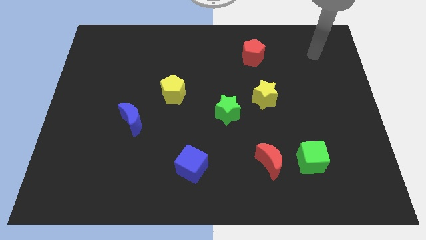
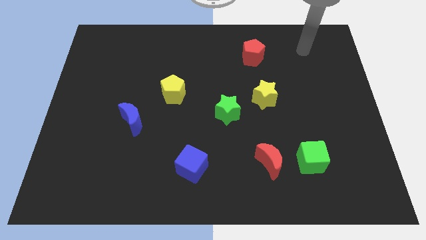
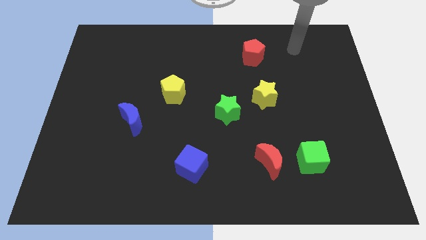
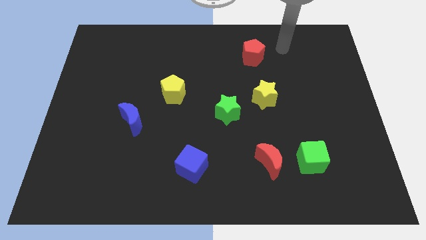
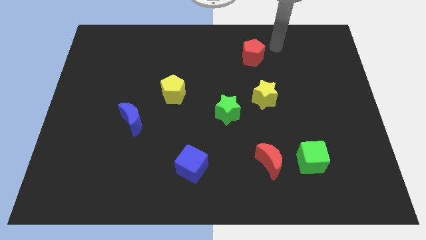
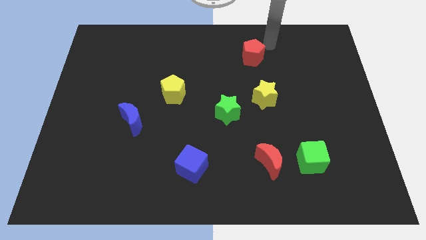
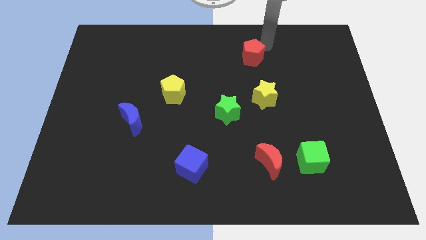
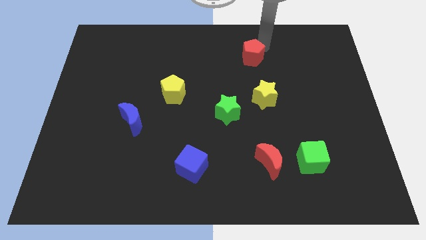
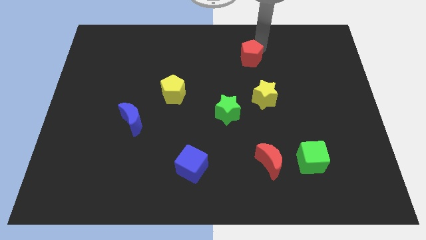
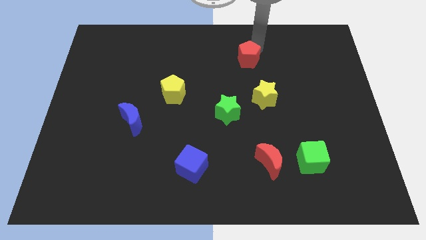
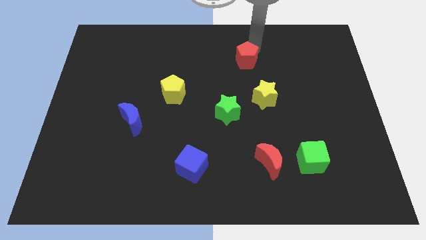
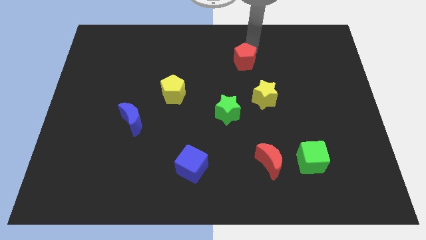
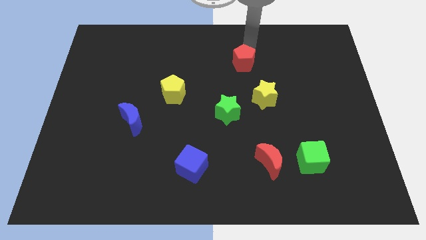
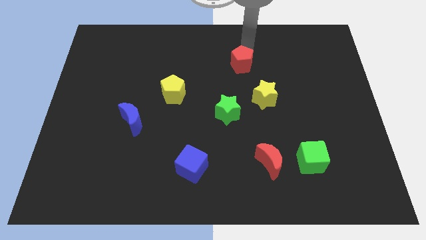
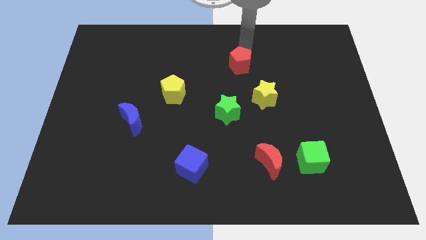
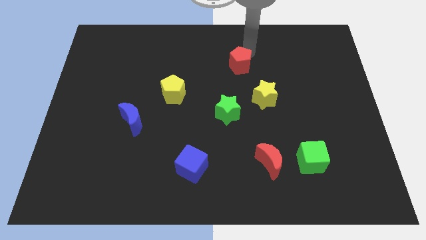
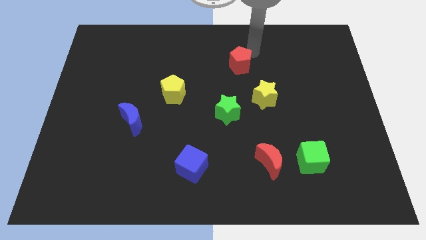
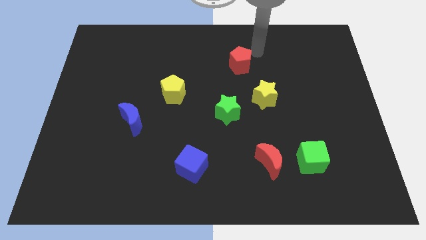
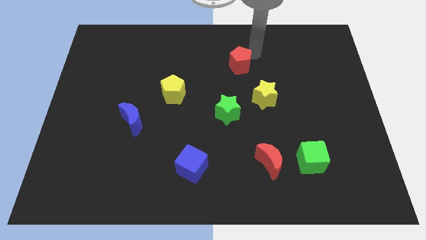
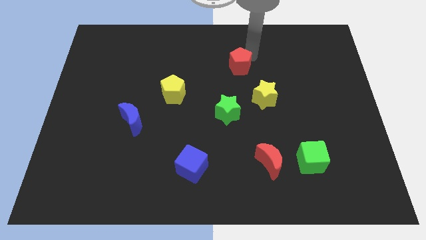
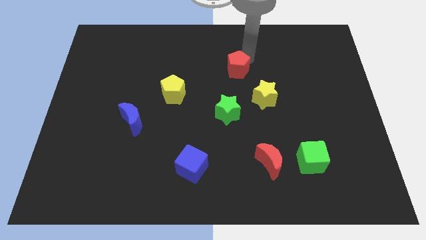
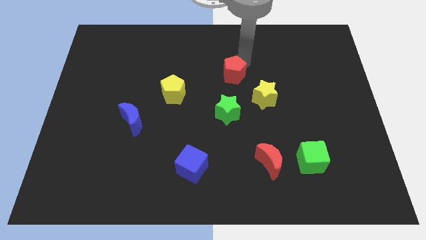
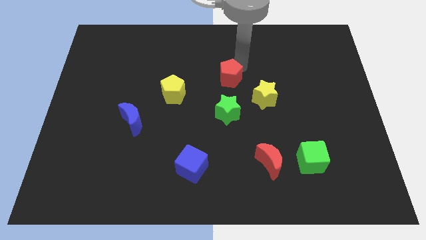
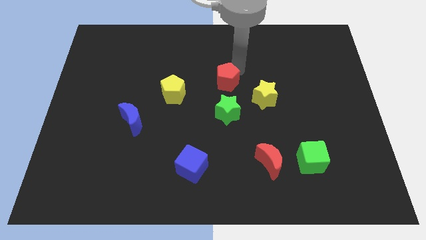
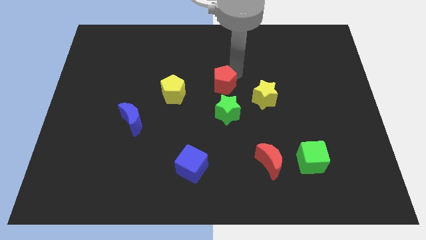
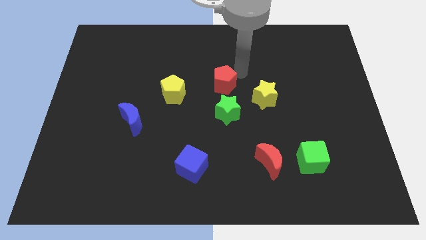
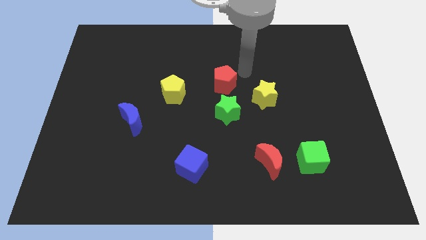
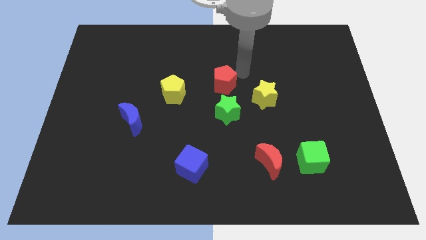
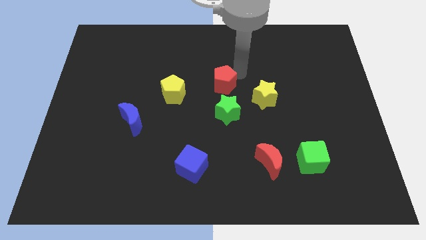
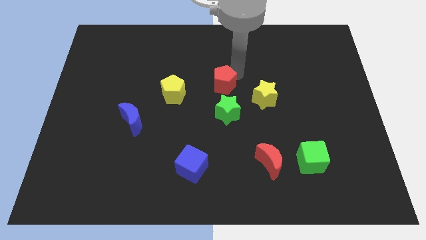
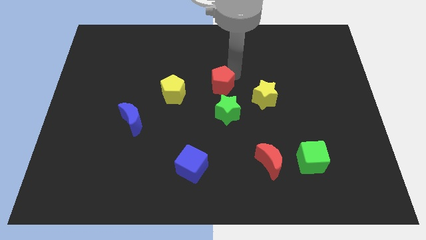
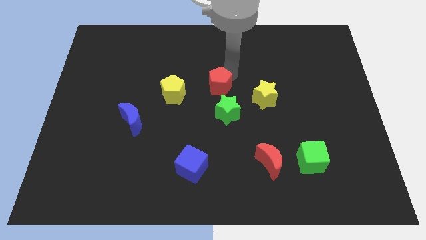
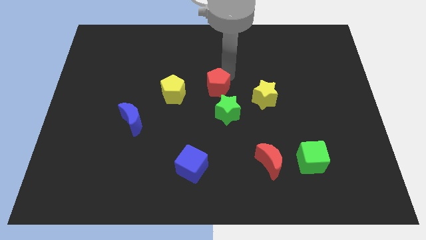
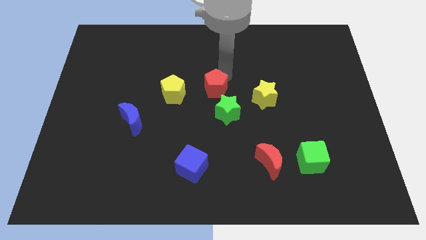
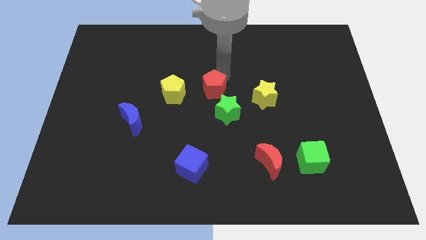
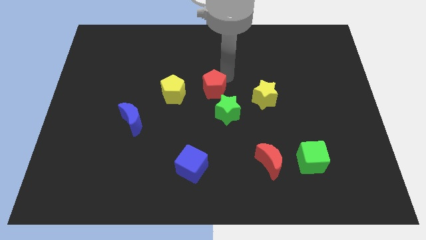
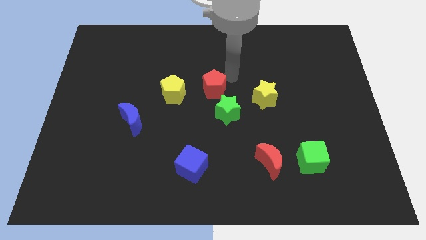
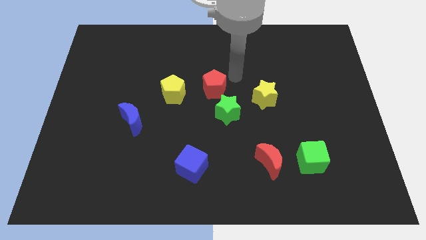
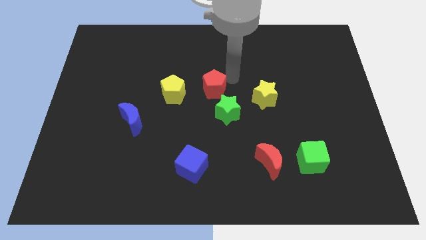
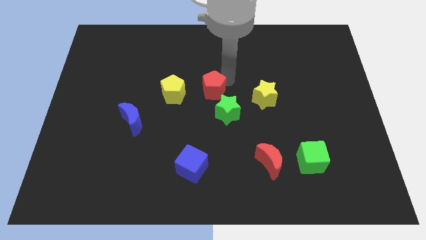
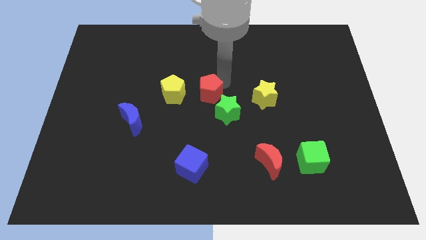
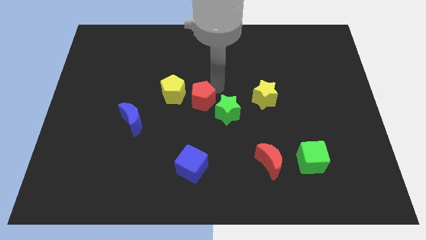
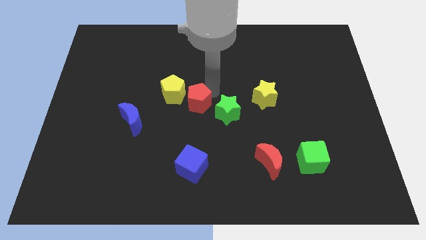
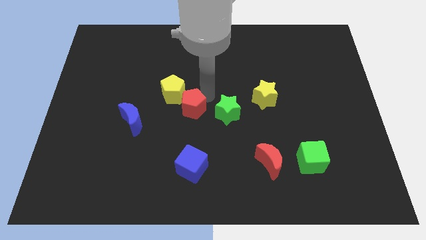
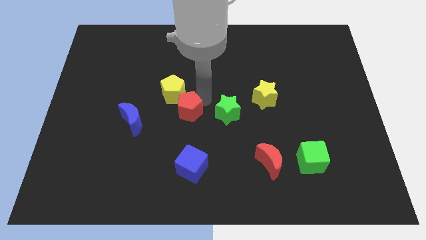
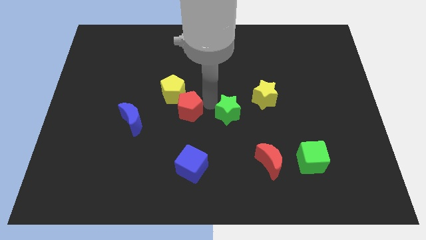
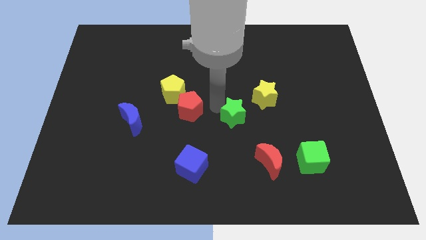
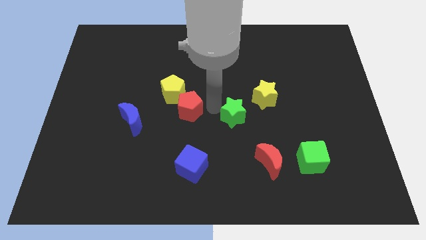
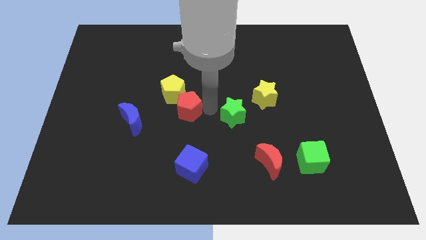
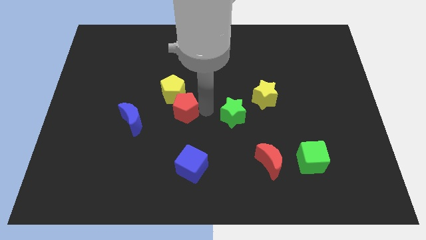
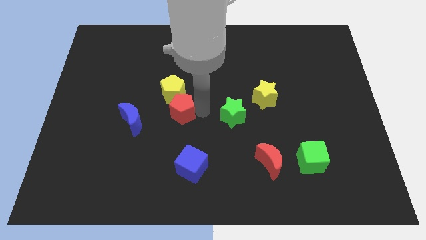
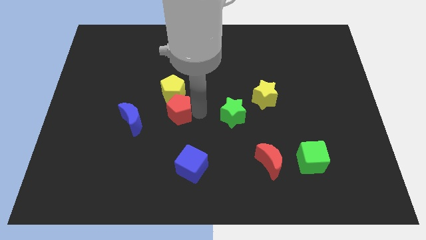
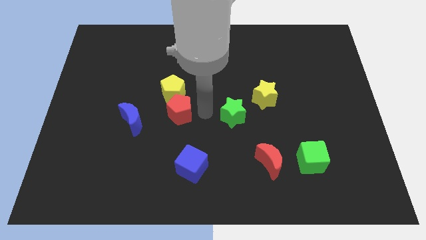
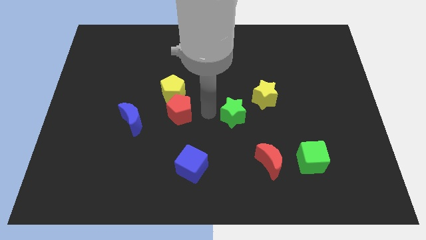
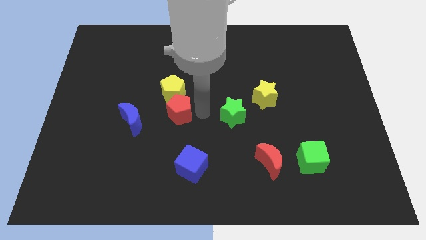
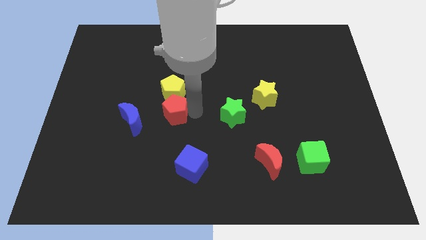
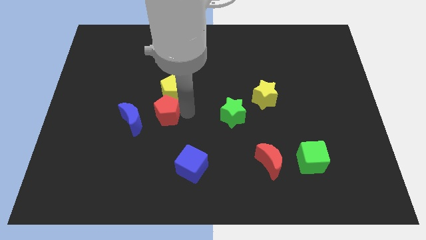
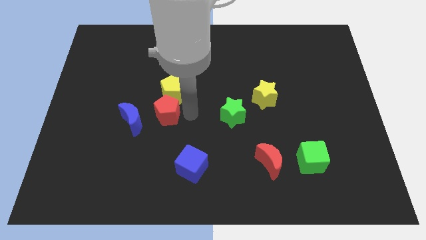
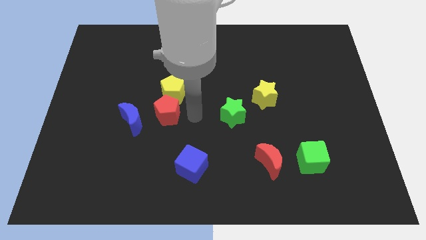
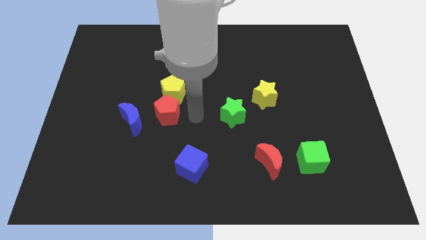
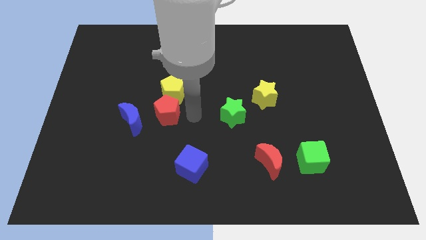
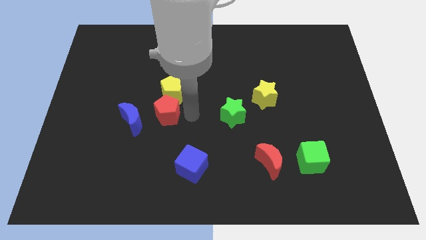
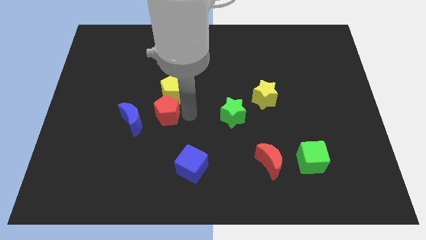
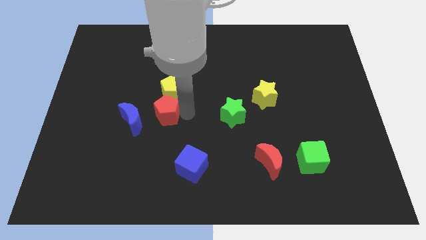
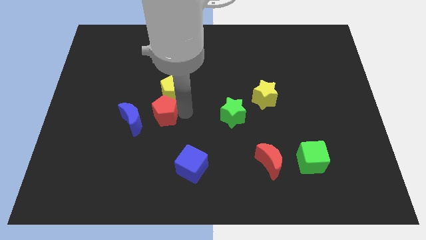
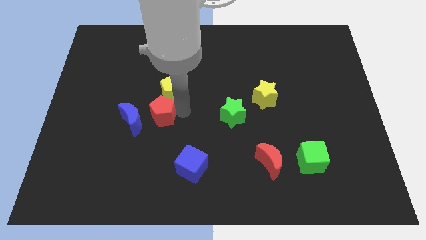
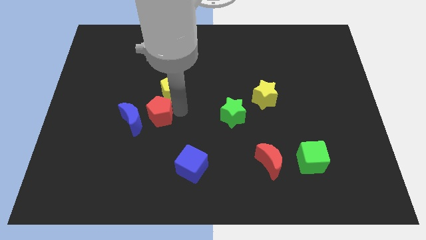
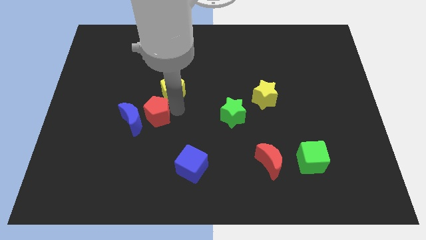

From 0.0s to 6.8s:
move the red pentagon towards the blue moon

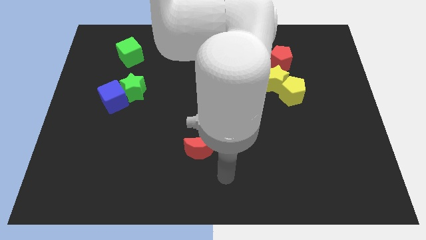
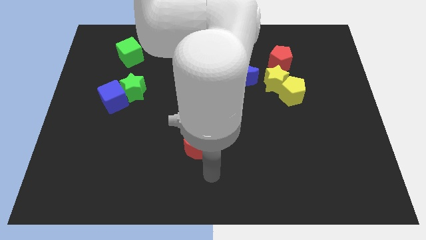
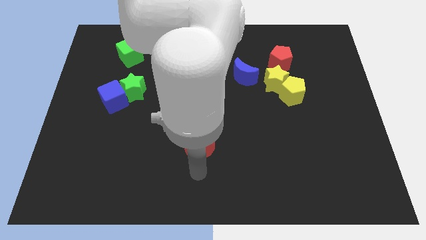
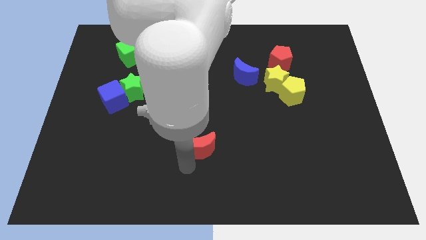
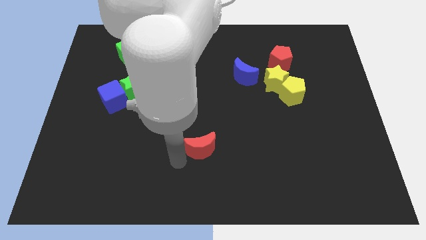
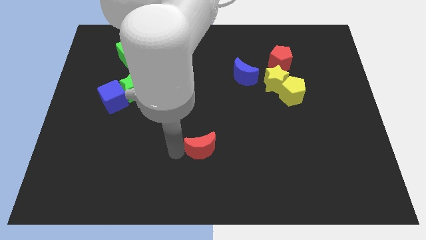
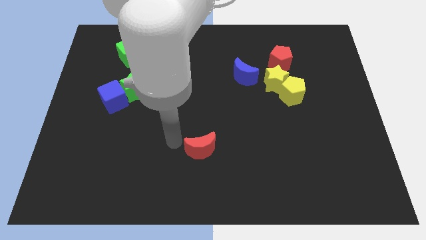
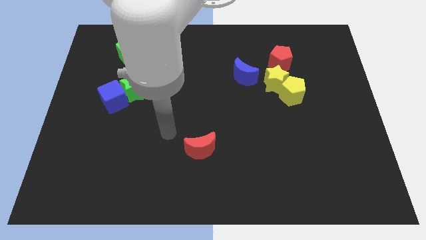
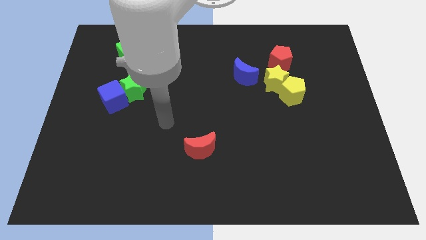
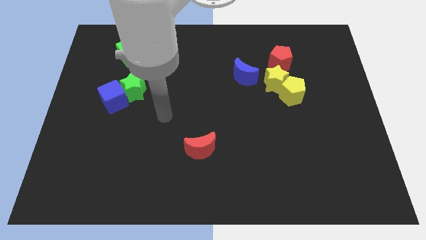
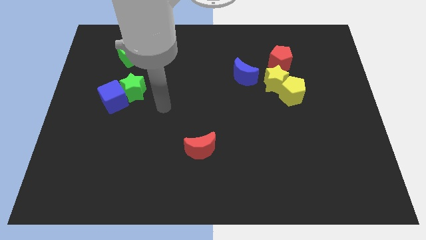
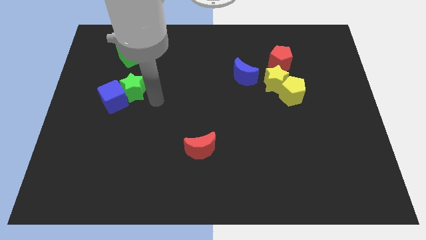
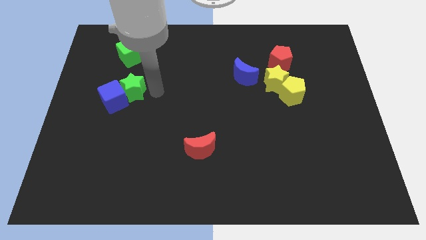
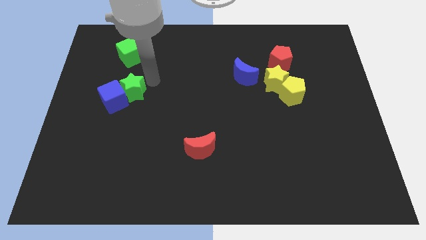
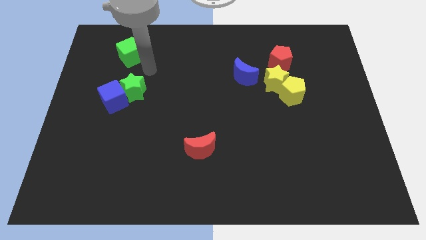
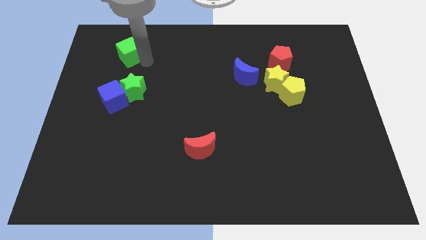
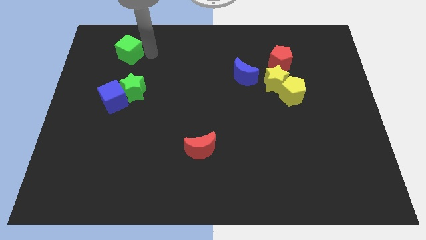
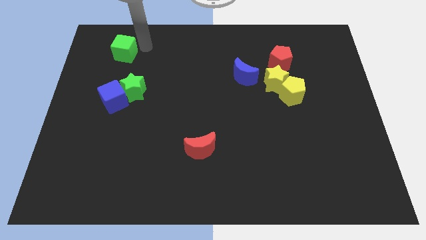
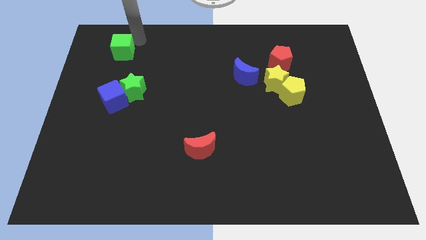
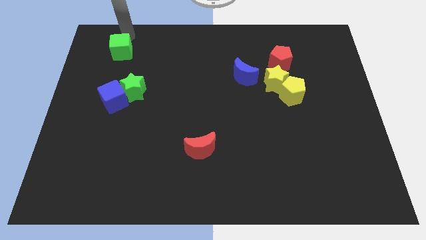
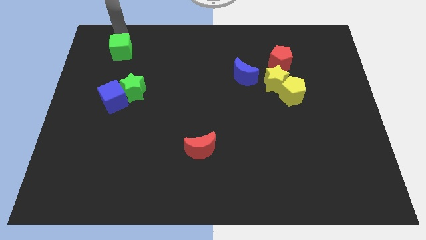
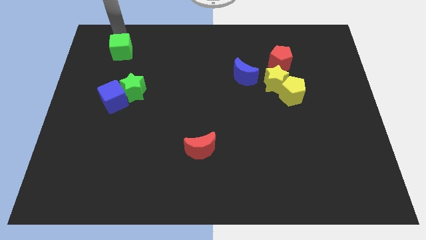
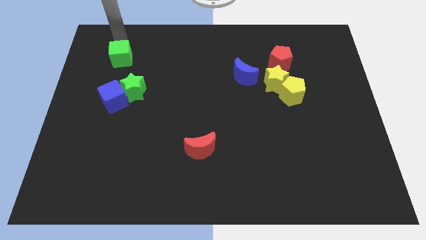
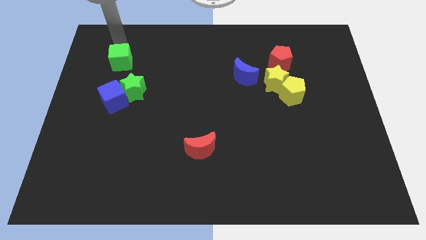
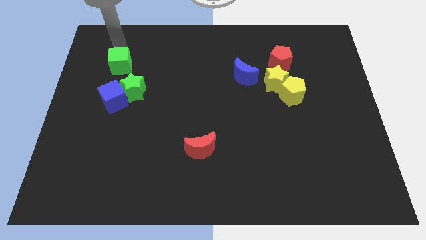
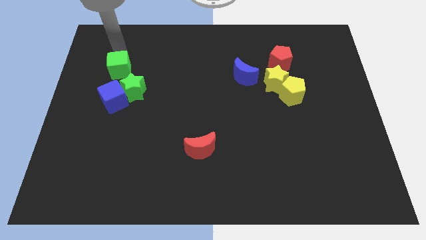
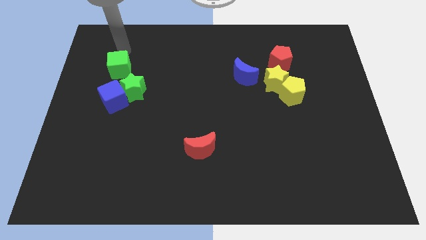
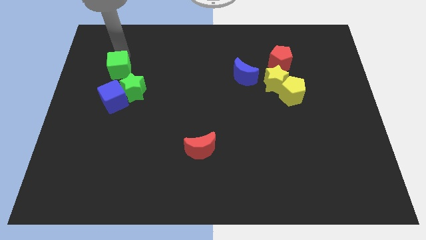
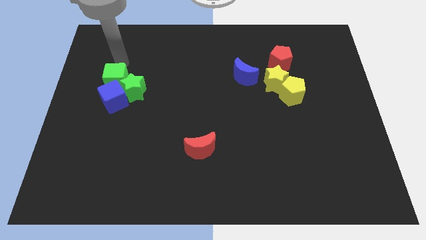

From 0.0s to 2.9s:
slide the green cube towards the blue cube
